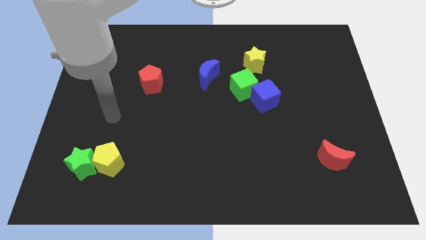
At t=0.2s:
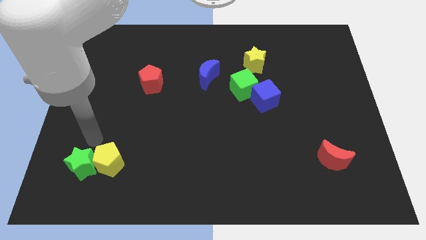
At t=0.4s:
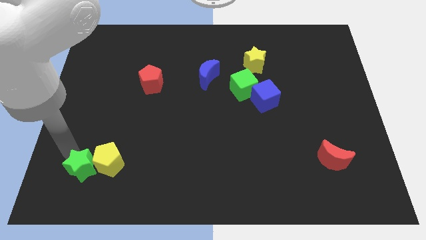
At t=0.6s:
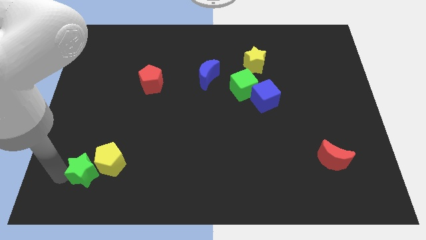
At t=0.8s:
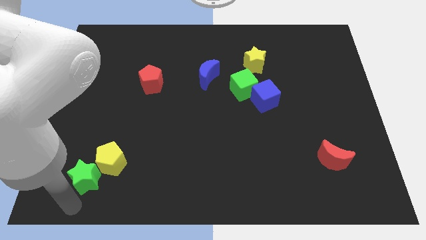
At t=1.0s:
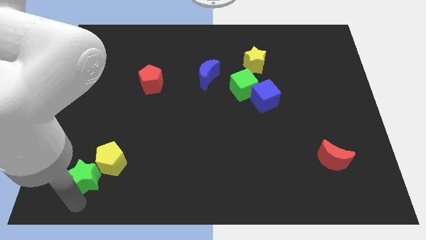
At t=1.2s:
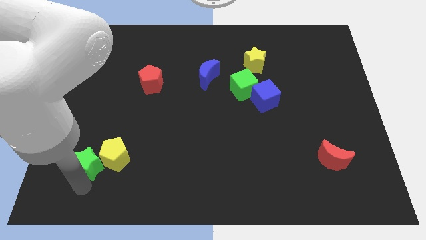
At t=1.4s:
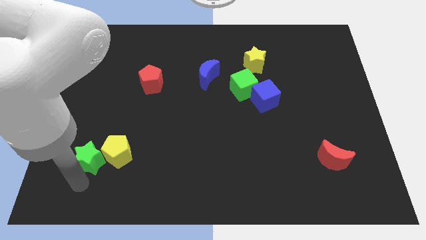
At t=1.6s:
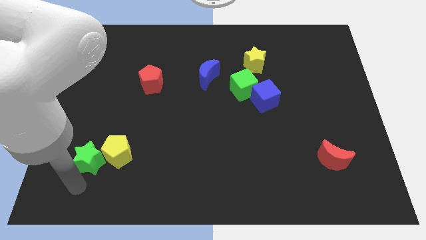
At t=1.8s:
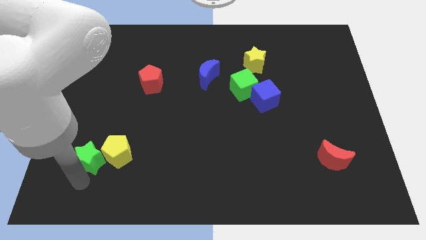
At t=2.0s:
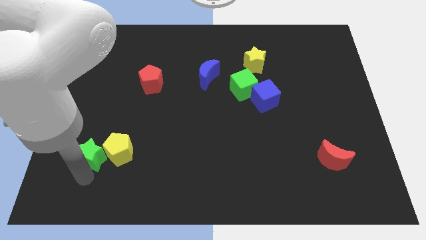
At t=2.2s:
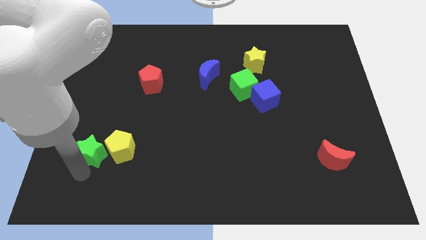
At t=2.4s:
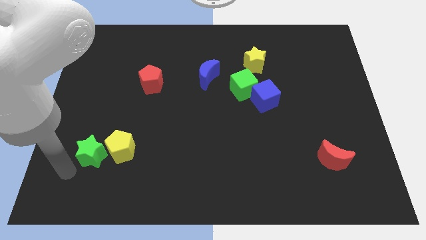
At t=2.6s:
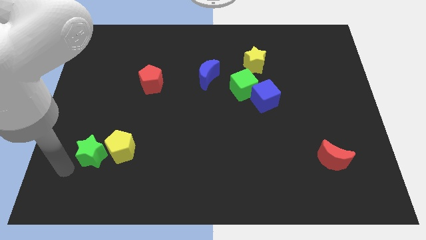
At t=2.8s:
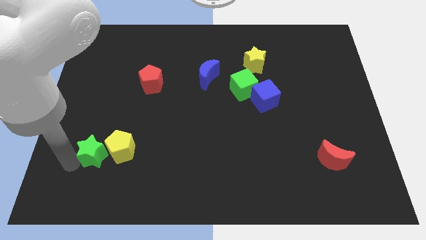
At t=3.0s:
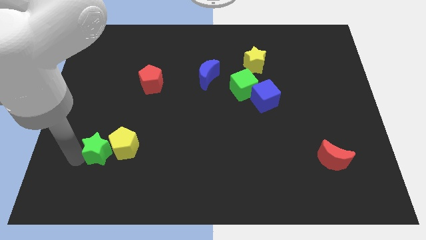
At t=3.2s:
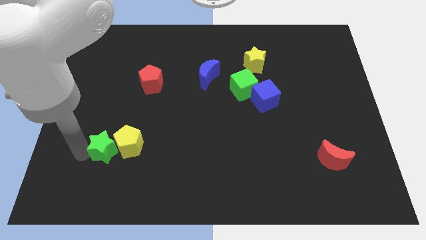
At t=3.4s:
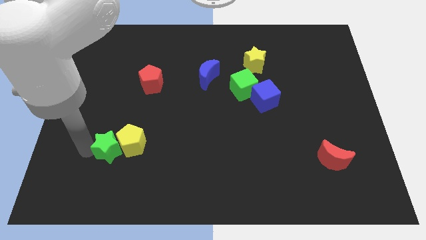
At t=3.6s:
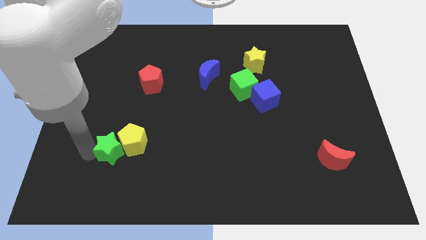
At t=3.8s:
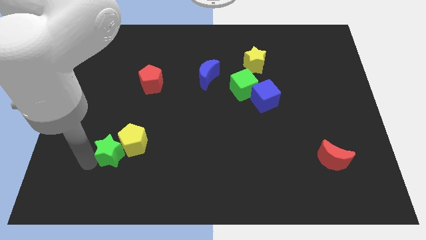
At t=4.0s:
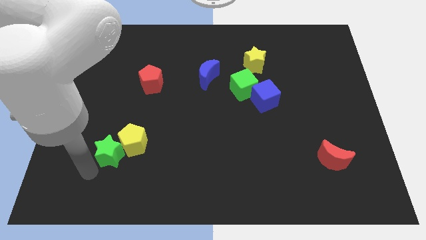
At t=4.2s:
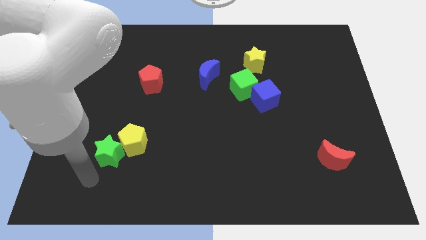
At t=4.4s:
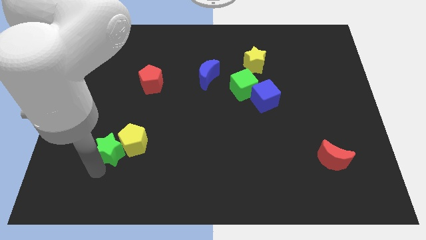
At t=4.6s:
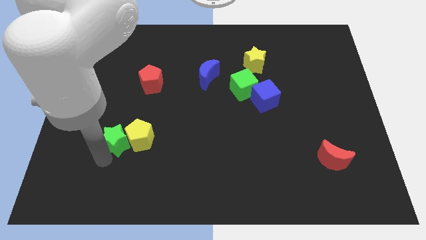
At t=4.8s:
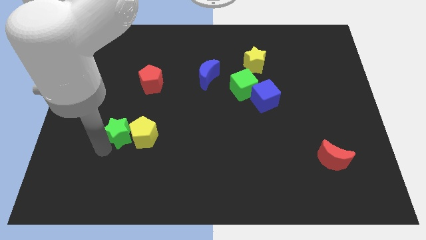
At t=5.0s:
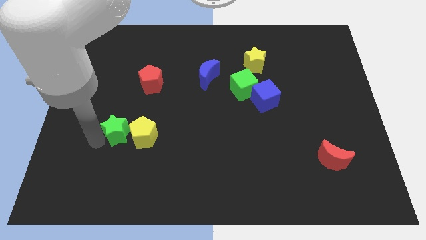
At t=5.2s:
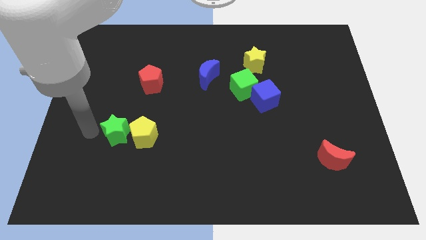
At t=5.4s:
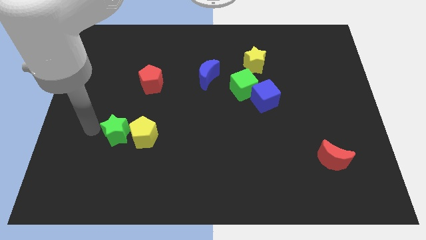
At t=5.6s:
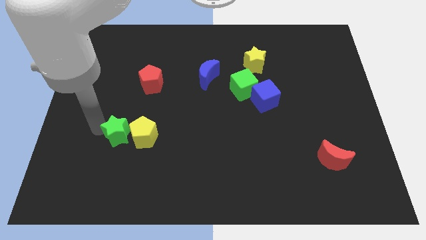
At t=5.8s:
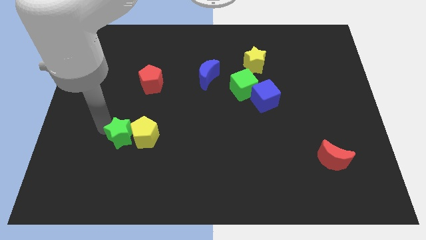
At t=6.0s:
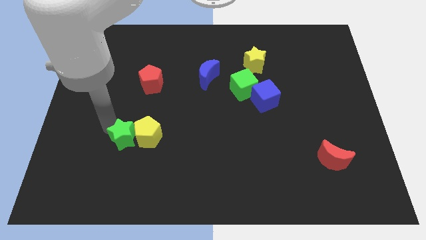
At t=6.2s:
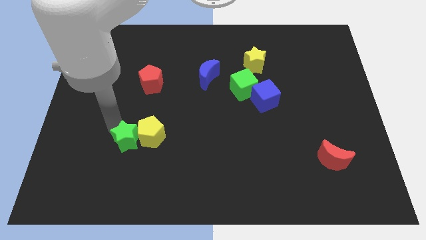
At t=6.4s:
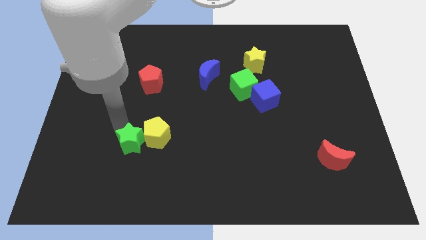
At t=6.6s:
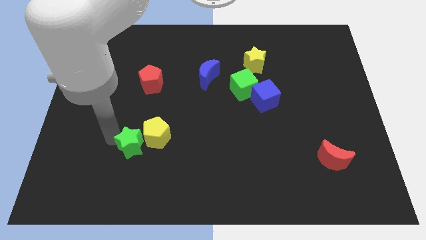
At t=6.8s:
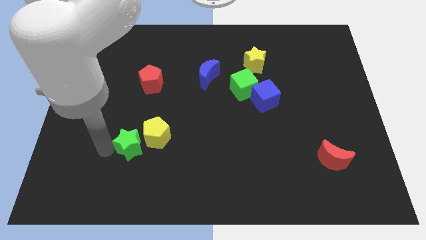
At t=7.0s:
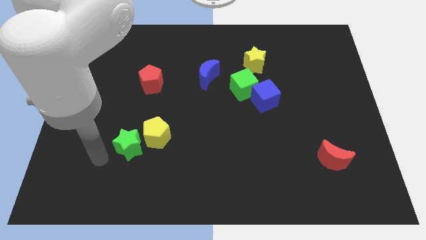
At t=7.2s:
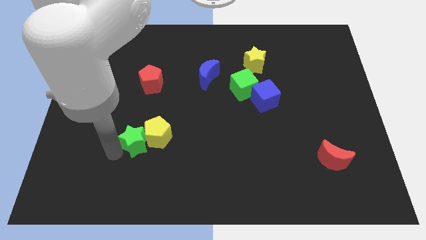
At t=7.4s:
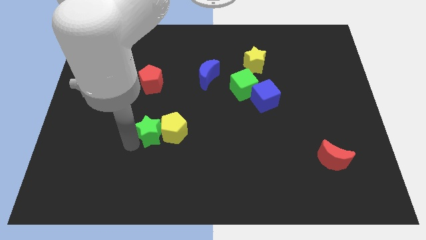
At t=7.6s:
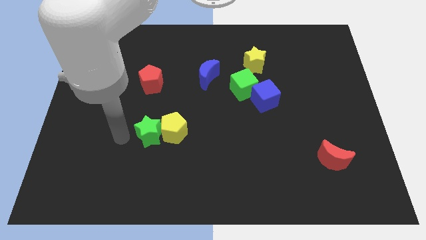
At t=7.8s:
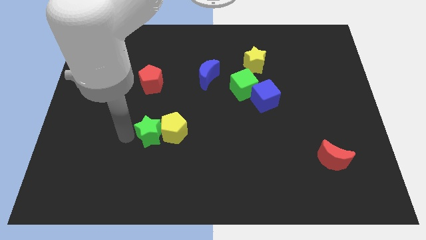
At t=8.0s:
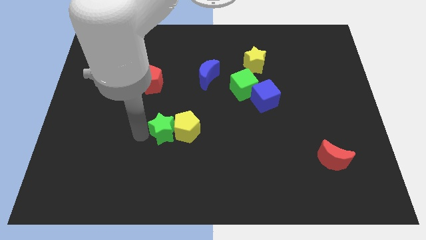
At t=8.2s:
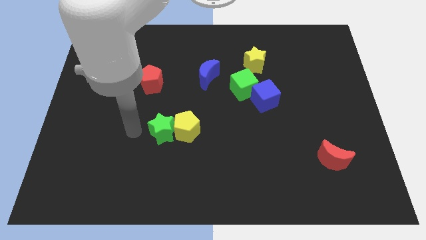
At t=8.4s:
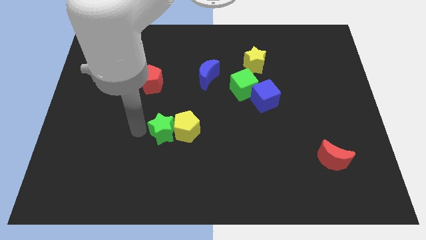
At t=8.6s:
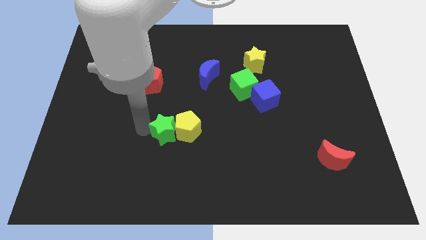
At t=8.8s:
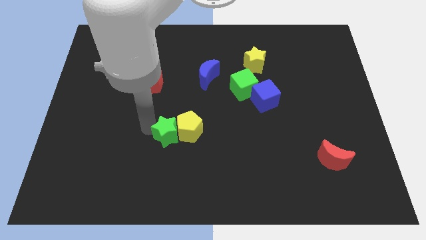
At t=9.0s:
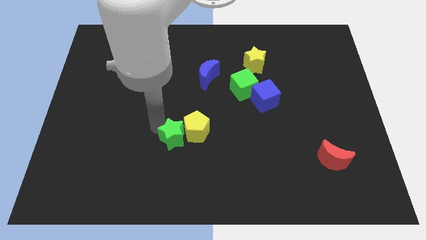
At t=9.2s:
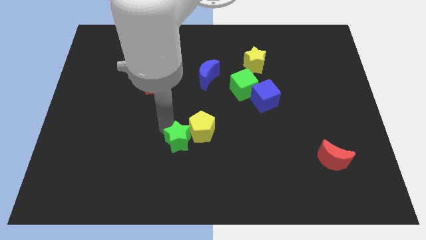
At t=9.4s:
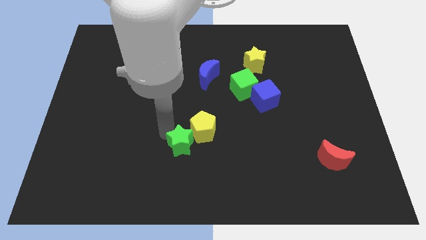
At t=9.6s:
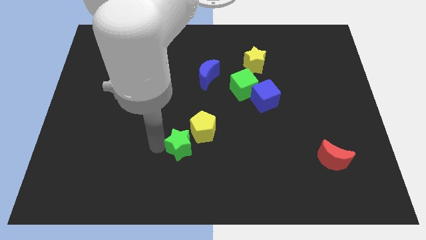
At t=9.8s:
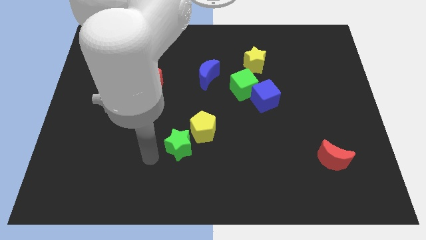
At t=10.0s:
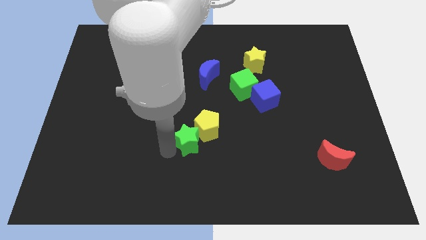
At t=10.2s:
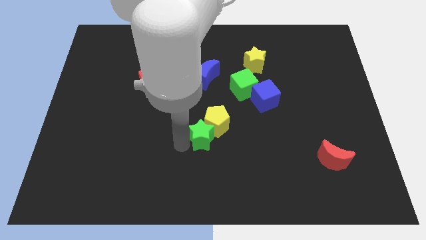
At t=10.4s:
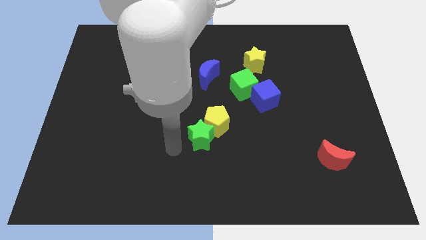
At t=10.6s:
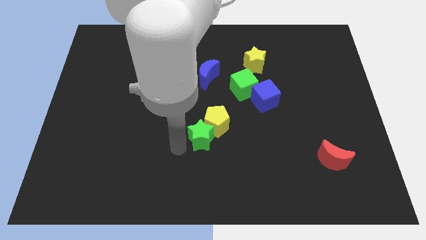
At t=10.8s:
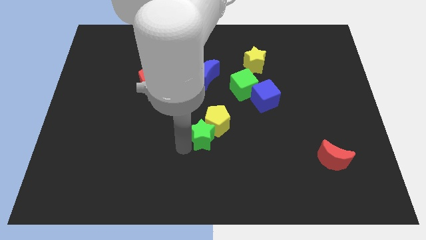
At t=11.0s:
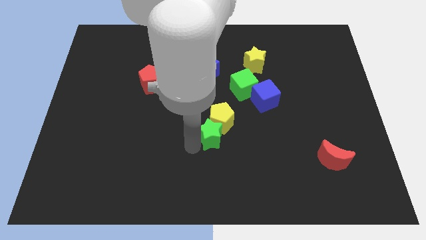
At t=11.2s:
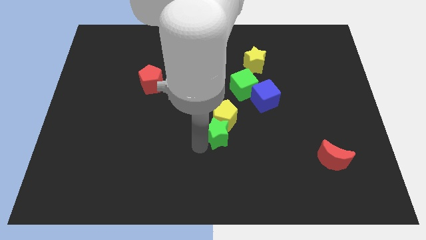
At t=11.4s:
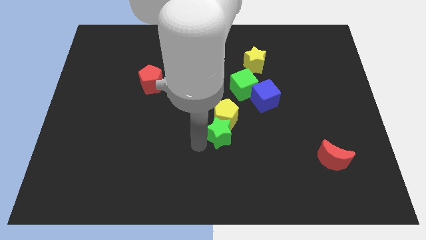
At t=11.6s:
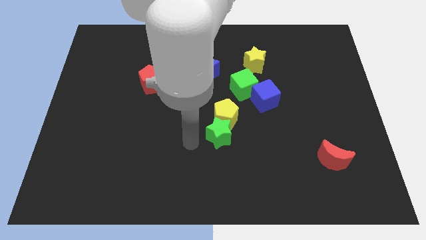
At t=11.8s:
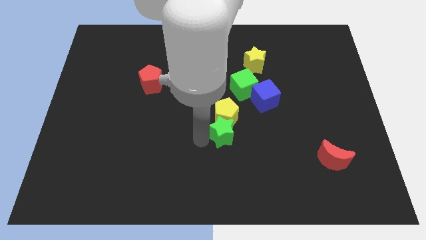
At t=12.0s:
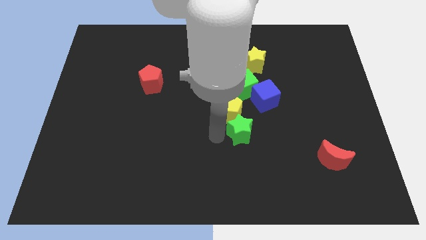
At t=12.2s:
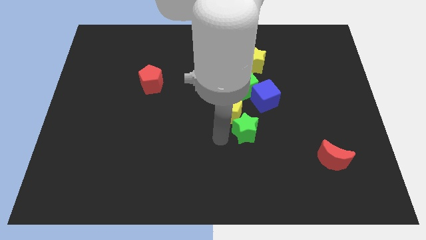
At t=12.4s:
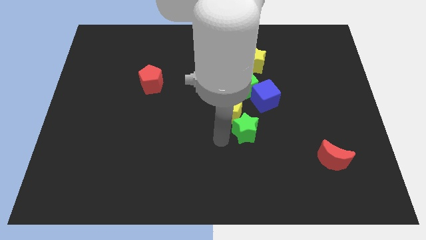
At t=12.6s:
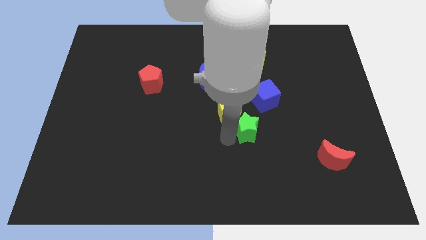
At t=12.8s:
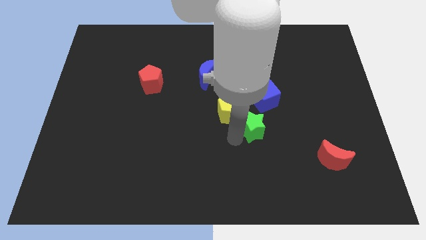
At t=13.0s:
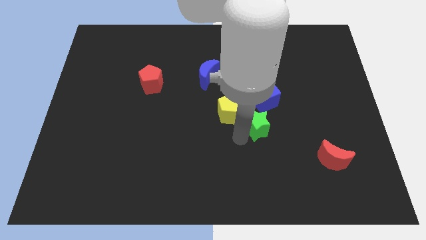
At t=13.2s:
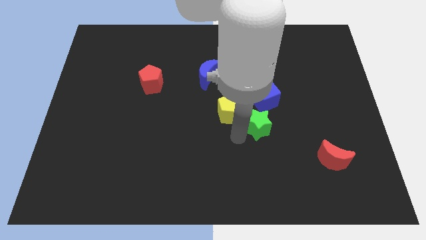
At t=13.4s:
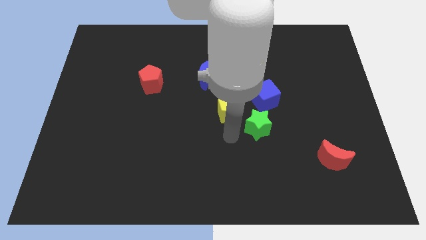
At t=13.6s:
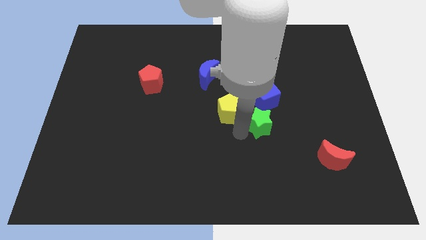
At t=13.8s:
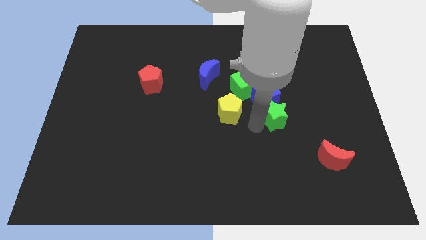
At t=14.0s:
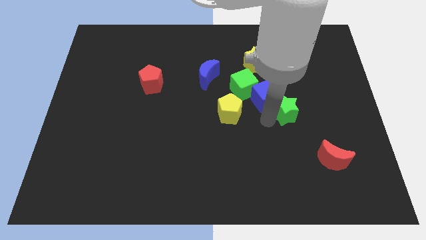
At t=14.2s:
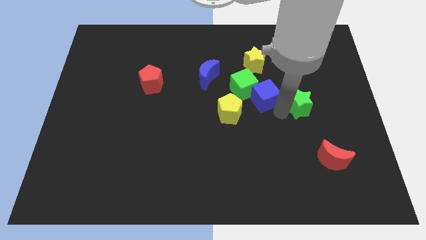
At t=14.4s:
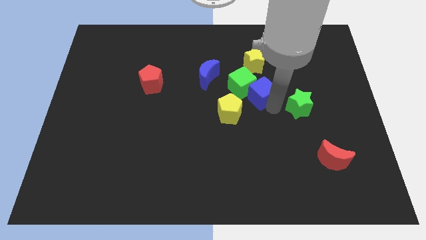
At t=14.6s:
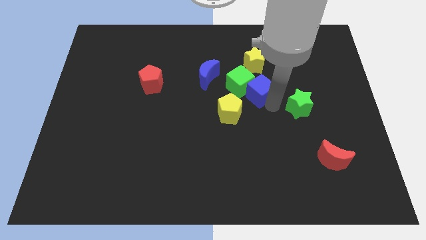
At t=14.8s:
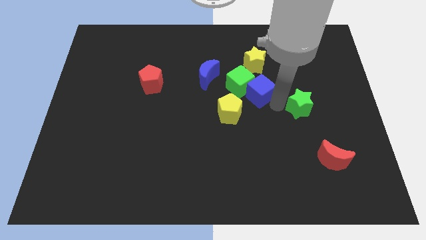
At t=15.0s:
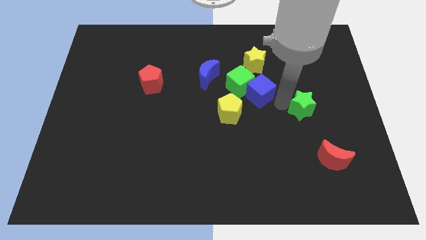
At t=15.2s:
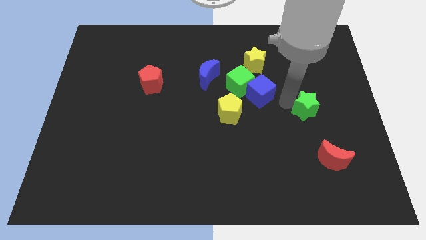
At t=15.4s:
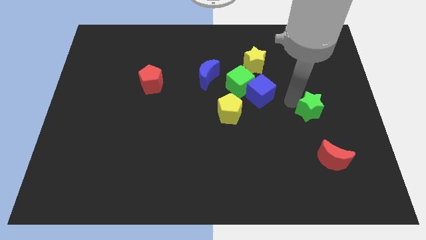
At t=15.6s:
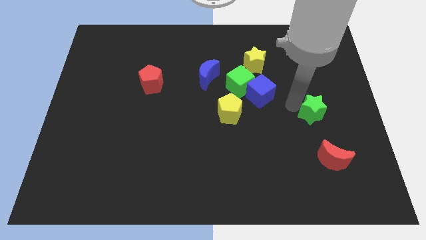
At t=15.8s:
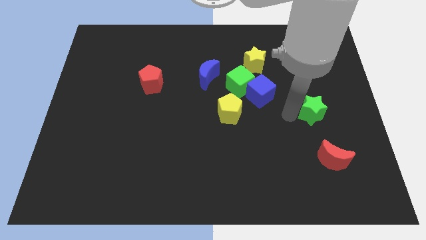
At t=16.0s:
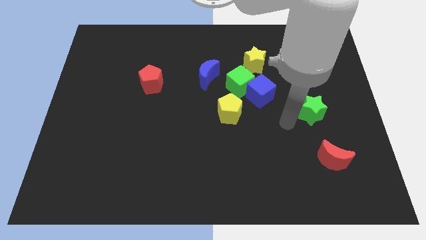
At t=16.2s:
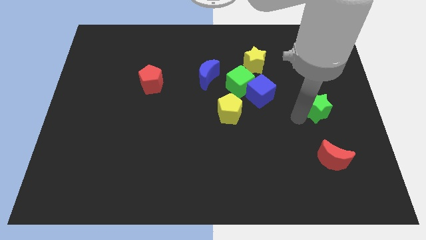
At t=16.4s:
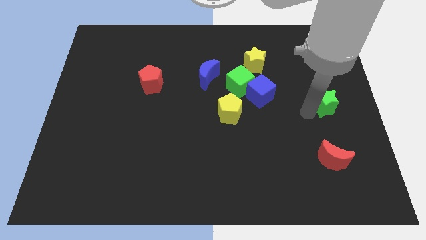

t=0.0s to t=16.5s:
put the green star to the right side
